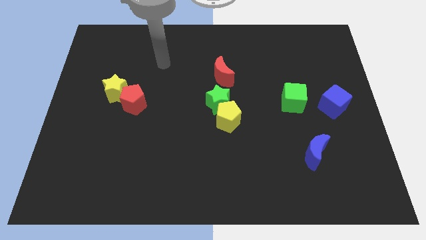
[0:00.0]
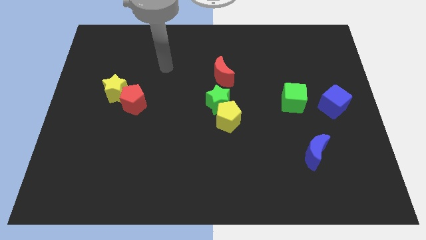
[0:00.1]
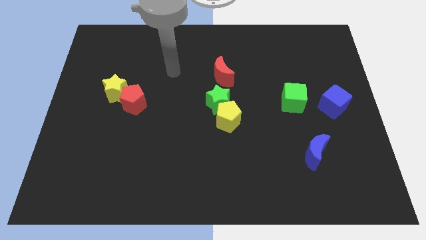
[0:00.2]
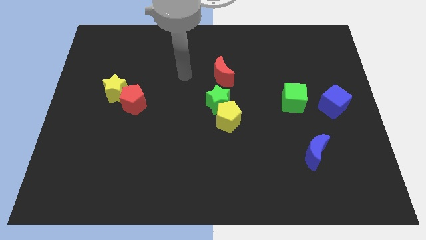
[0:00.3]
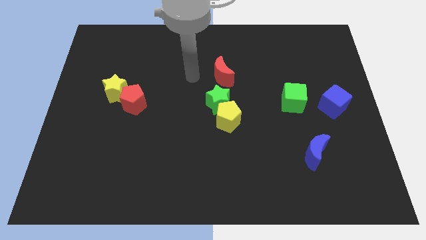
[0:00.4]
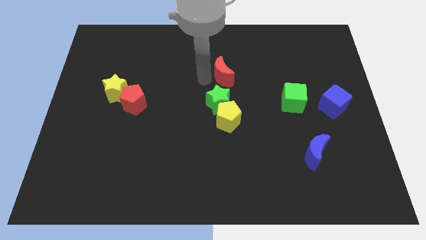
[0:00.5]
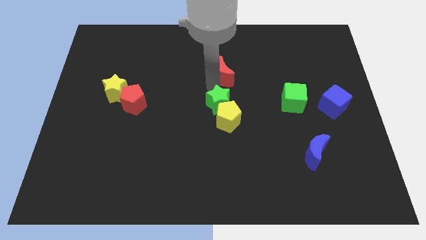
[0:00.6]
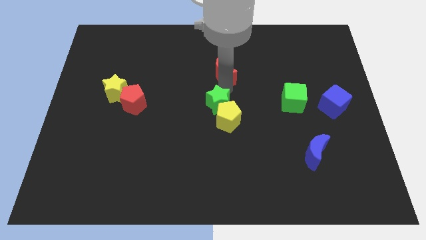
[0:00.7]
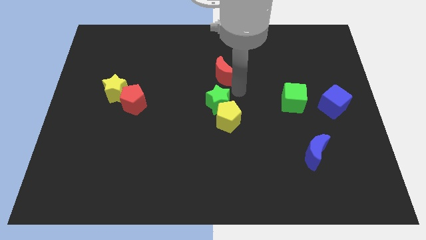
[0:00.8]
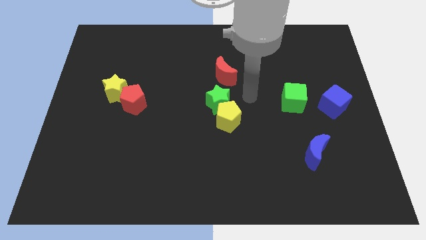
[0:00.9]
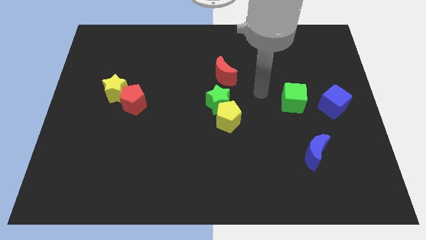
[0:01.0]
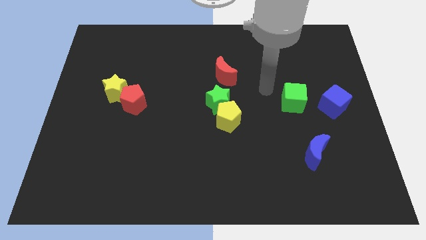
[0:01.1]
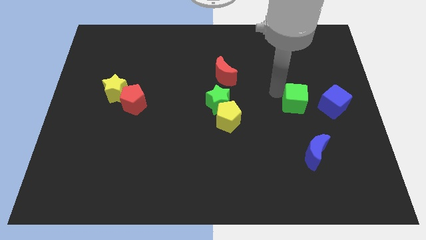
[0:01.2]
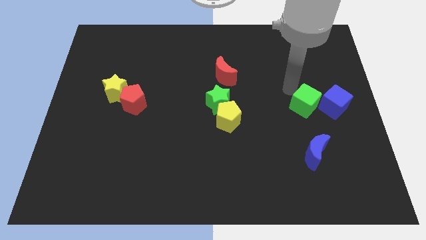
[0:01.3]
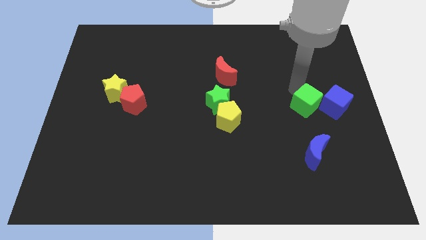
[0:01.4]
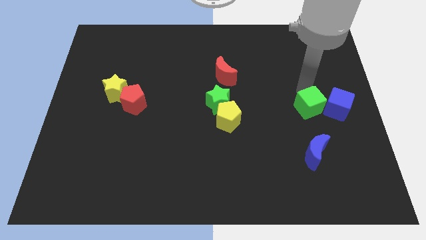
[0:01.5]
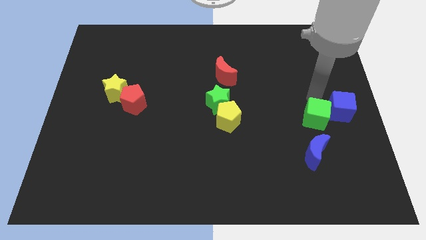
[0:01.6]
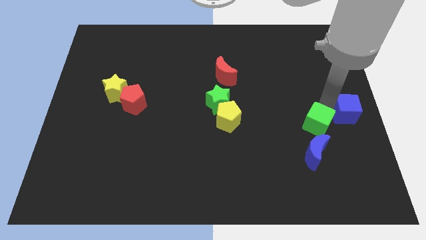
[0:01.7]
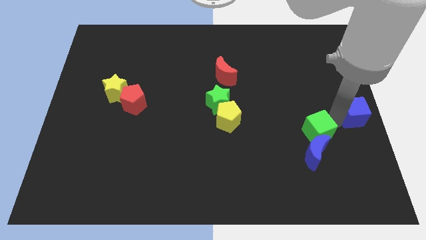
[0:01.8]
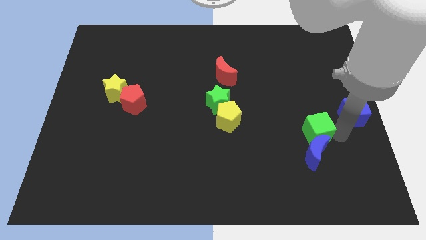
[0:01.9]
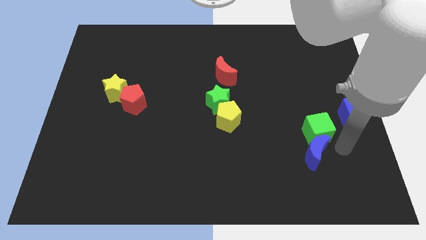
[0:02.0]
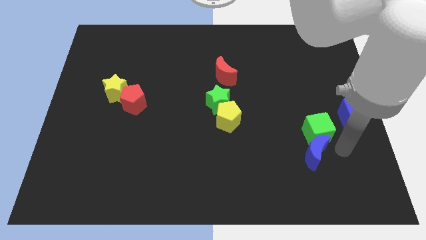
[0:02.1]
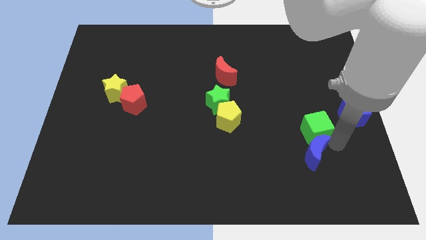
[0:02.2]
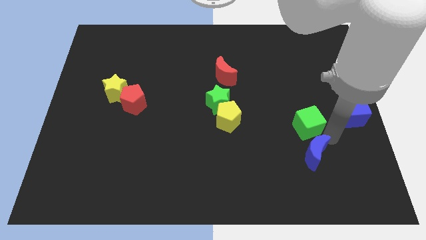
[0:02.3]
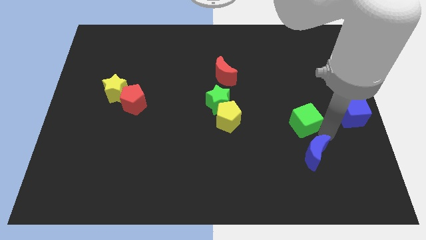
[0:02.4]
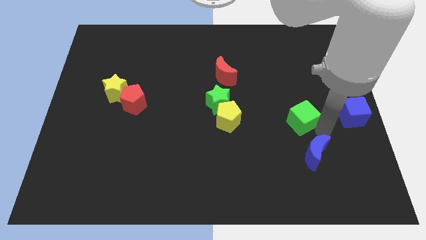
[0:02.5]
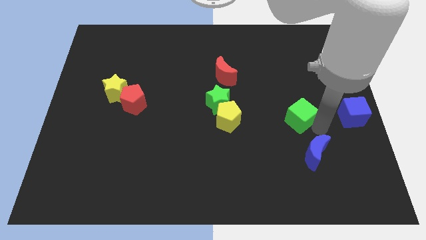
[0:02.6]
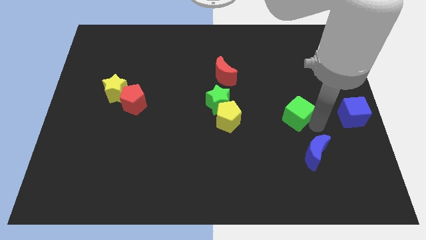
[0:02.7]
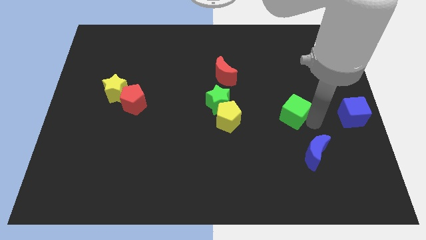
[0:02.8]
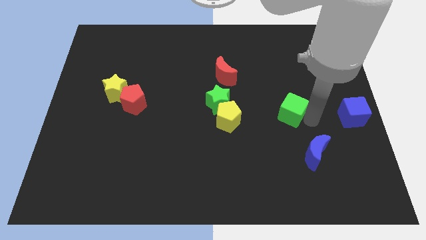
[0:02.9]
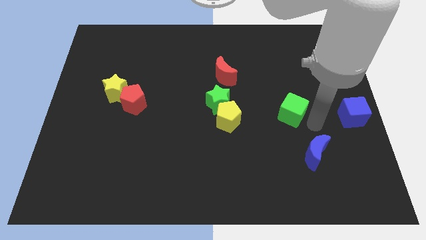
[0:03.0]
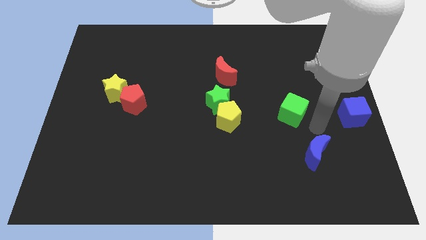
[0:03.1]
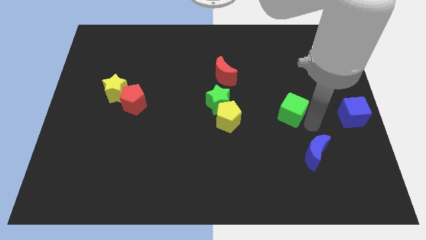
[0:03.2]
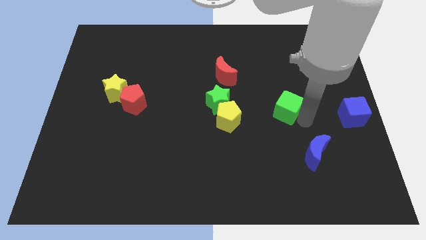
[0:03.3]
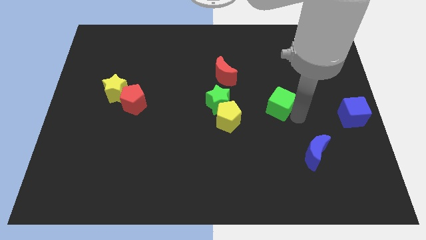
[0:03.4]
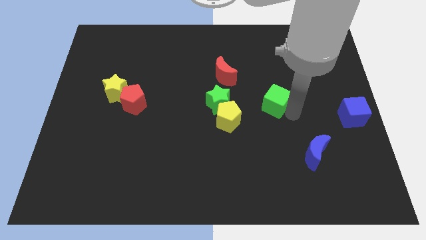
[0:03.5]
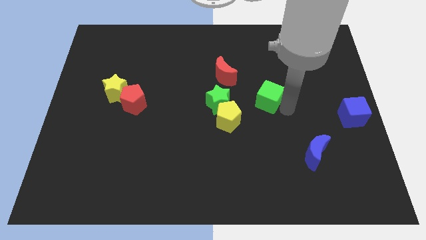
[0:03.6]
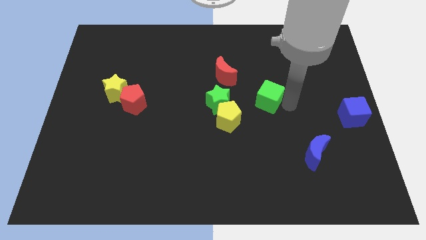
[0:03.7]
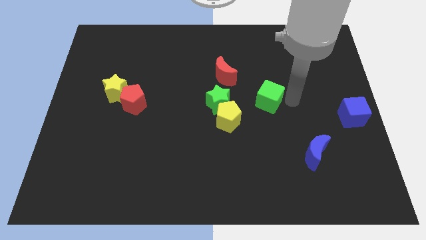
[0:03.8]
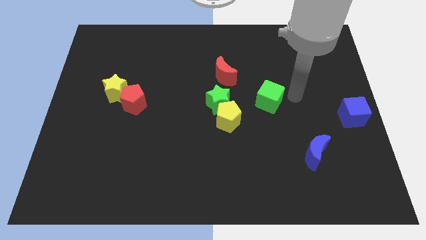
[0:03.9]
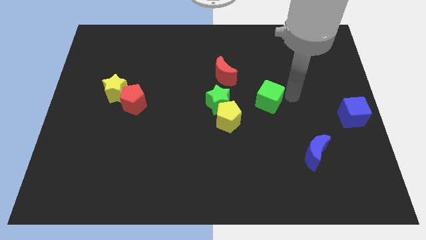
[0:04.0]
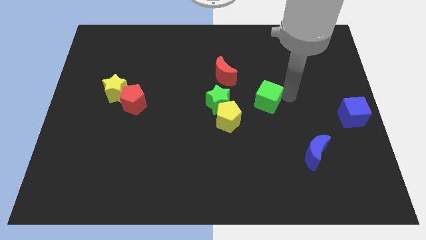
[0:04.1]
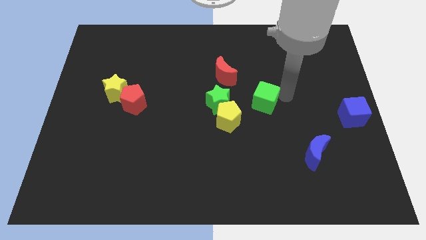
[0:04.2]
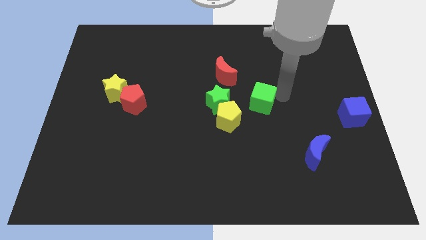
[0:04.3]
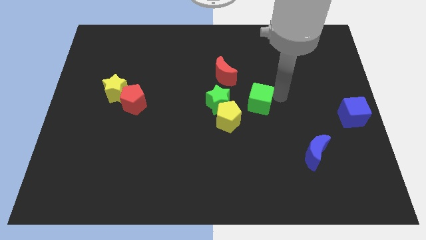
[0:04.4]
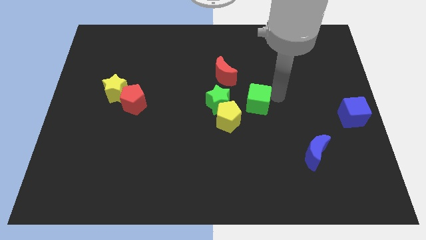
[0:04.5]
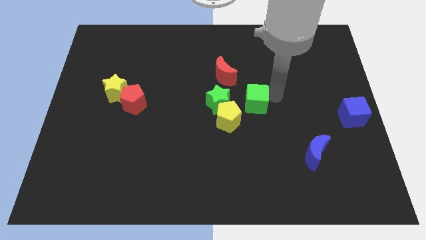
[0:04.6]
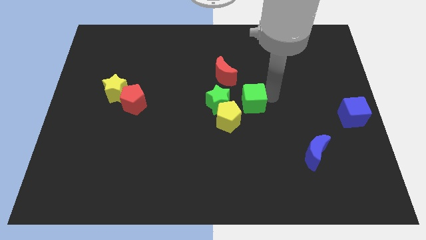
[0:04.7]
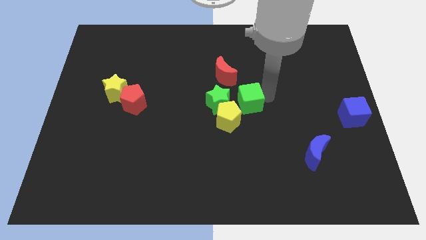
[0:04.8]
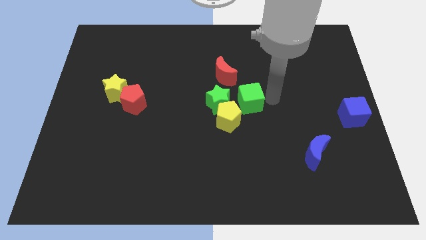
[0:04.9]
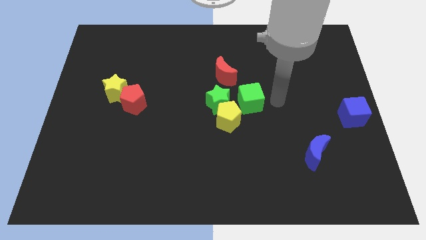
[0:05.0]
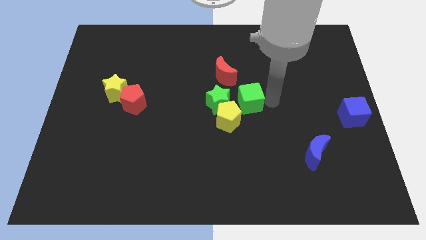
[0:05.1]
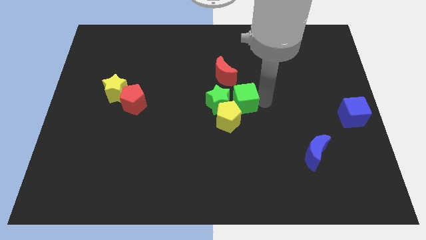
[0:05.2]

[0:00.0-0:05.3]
put the green cube to the green star

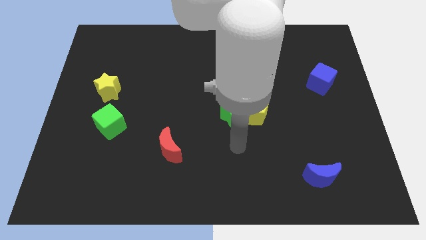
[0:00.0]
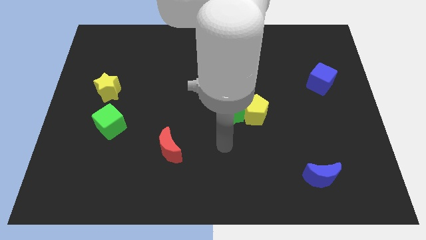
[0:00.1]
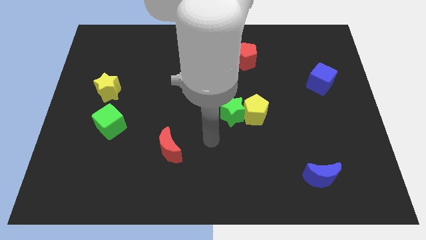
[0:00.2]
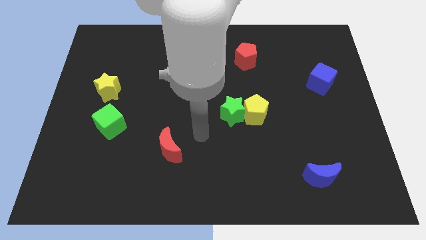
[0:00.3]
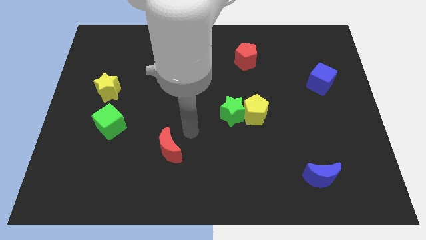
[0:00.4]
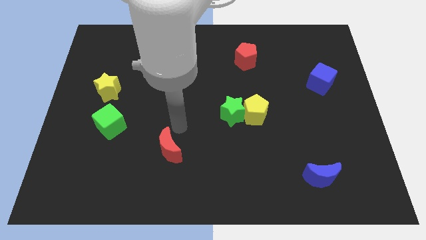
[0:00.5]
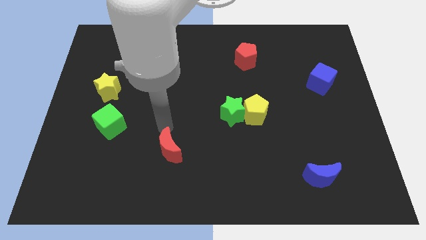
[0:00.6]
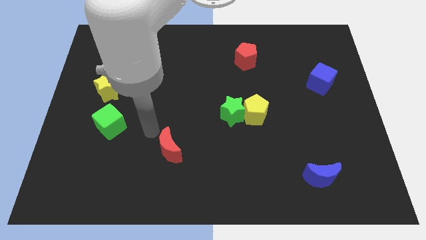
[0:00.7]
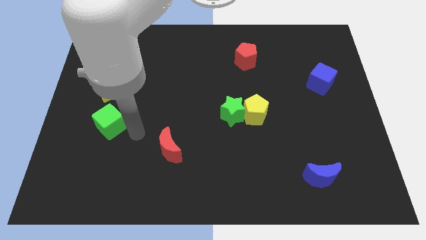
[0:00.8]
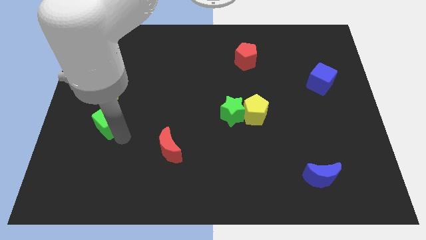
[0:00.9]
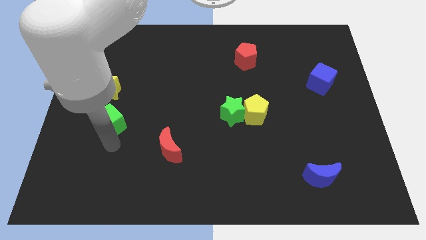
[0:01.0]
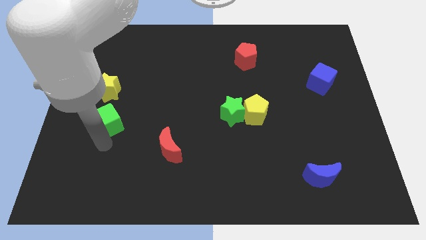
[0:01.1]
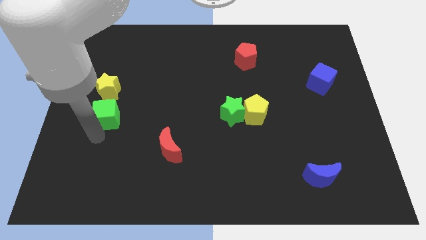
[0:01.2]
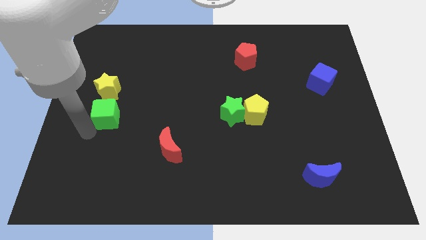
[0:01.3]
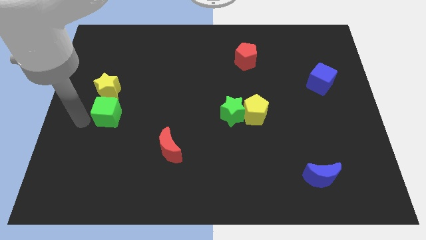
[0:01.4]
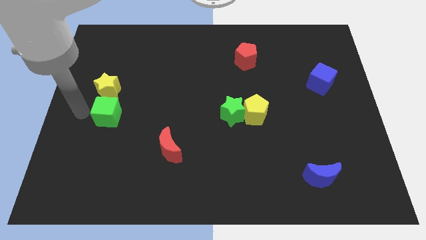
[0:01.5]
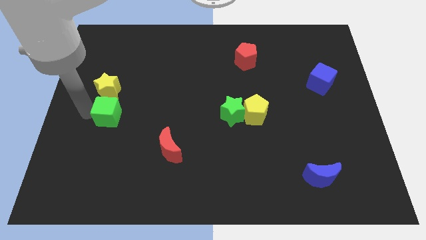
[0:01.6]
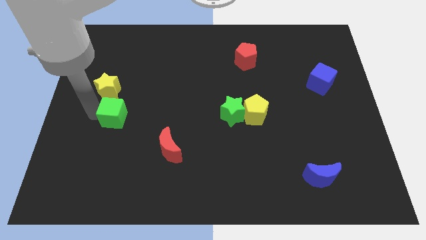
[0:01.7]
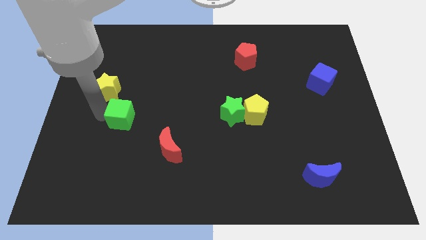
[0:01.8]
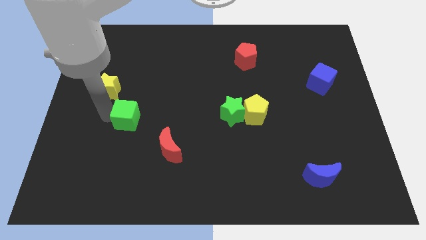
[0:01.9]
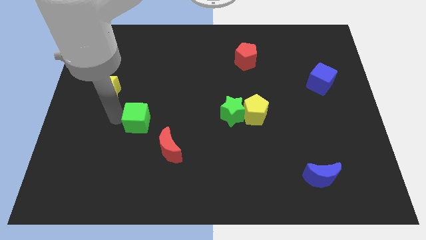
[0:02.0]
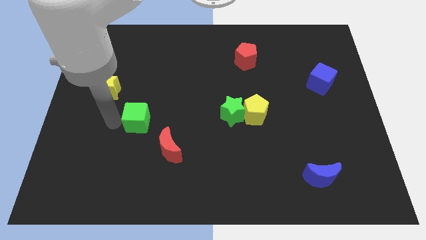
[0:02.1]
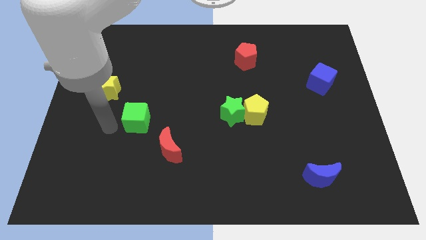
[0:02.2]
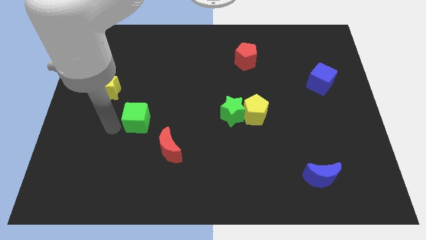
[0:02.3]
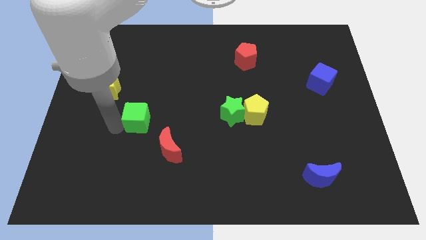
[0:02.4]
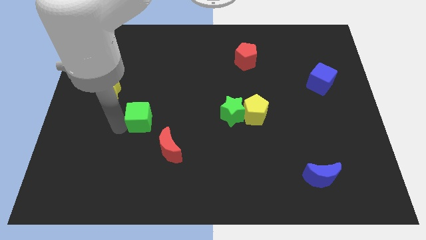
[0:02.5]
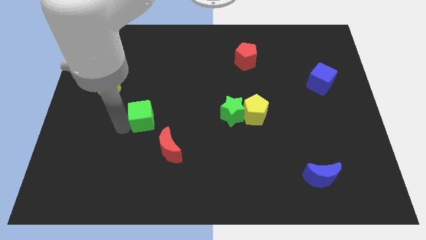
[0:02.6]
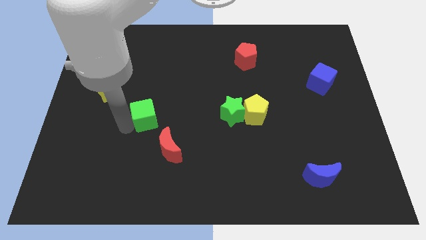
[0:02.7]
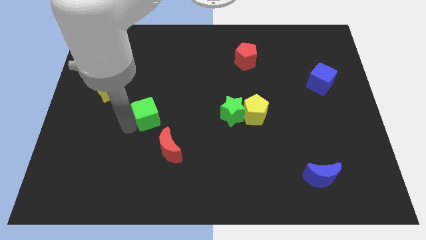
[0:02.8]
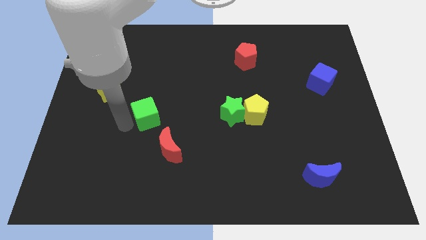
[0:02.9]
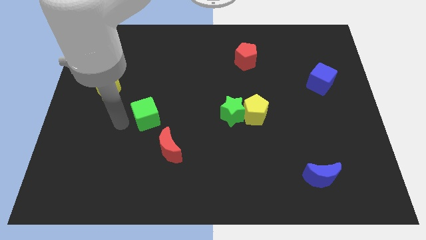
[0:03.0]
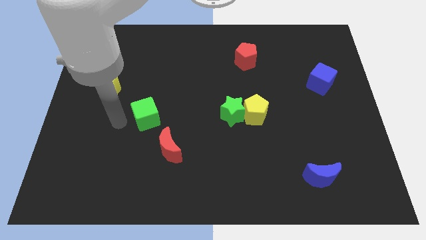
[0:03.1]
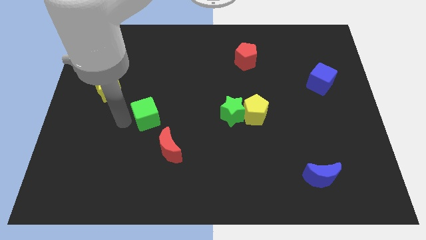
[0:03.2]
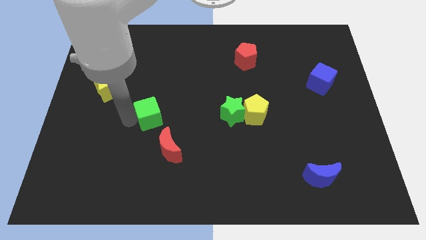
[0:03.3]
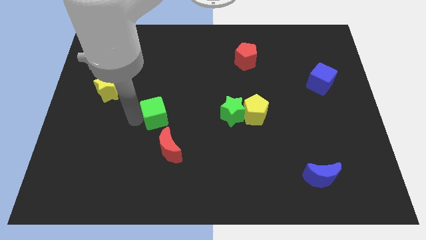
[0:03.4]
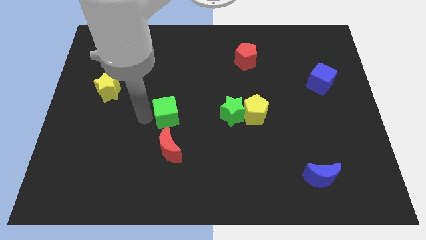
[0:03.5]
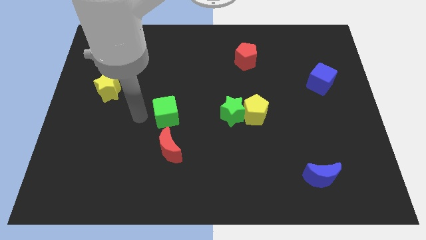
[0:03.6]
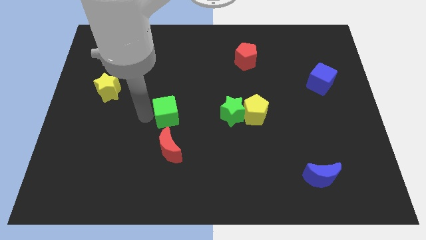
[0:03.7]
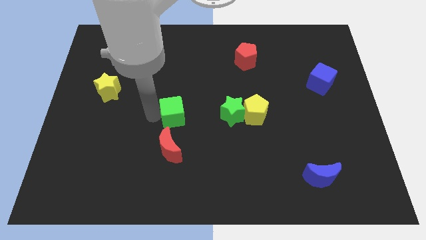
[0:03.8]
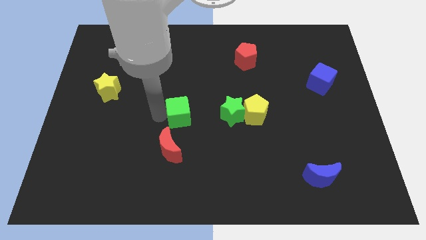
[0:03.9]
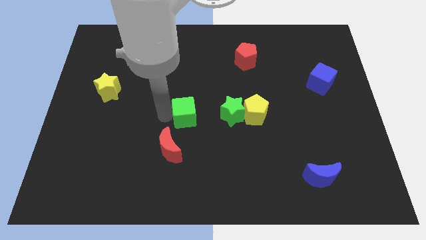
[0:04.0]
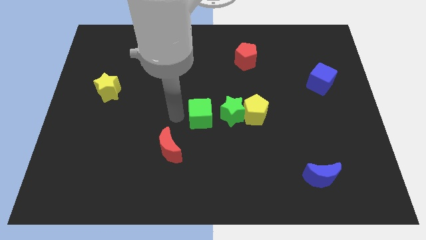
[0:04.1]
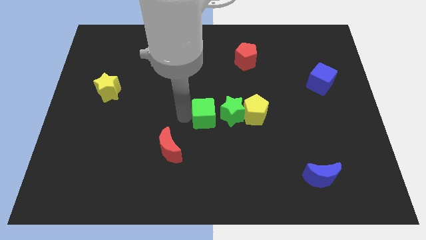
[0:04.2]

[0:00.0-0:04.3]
slide the green cube next to the green star
